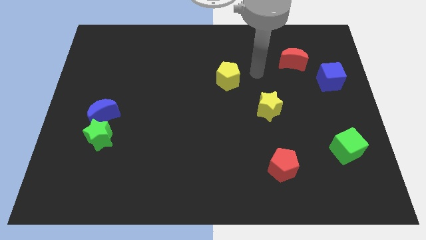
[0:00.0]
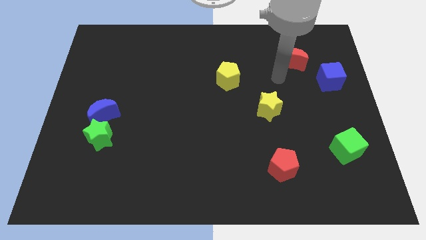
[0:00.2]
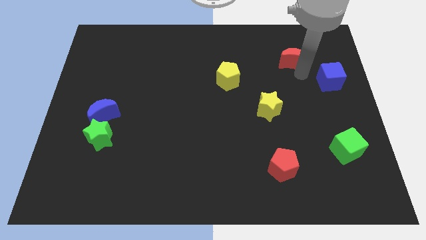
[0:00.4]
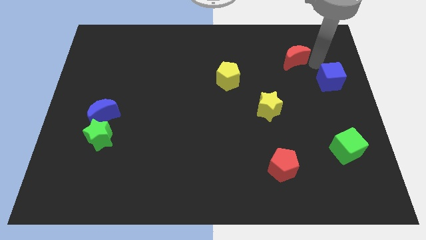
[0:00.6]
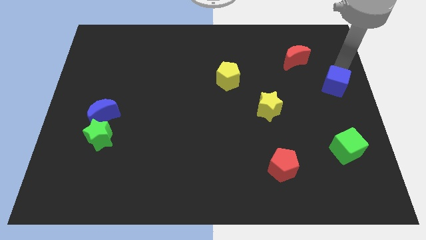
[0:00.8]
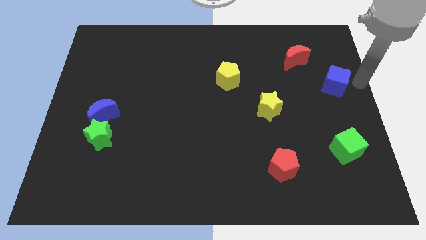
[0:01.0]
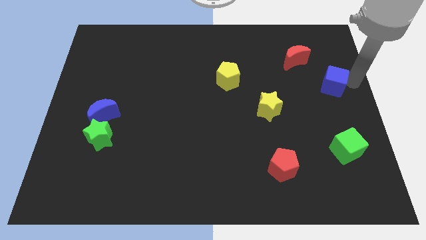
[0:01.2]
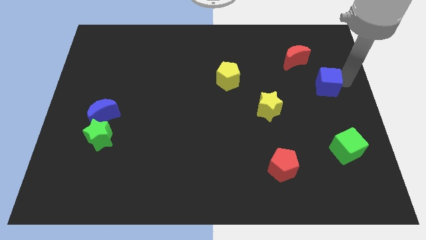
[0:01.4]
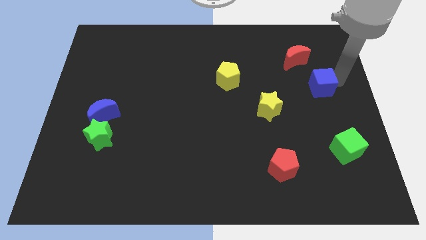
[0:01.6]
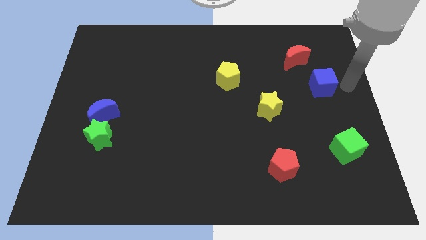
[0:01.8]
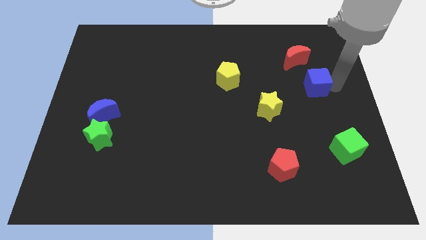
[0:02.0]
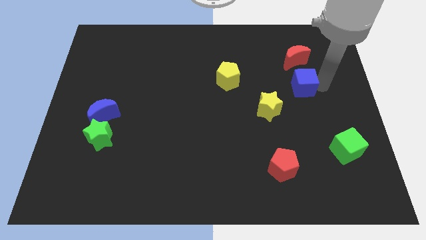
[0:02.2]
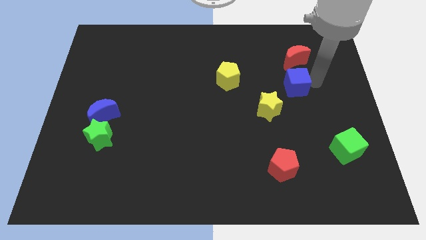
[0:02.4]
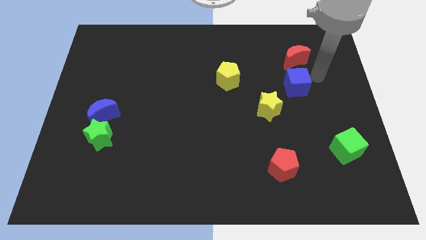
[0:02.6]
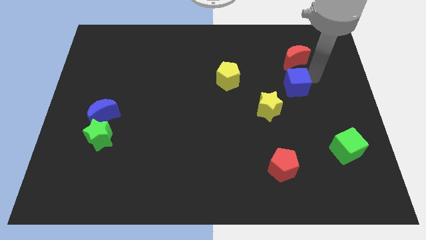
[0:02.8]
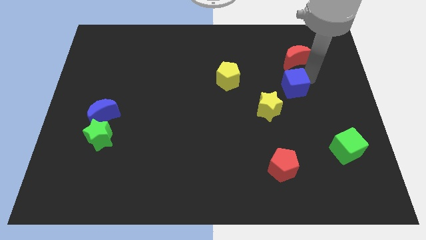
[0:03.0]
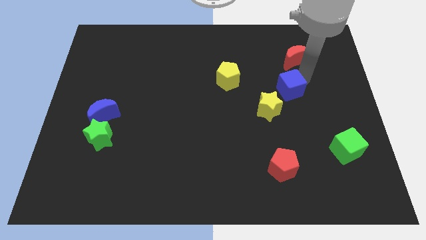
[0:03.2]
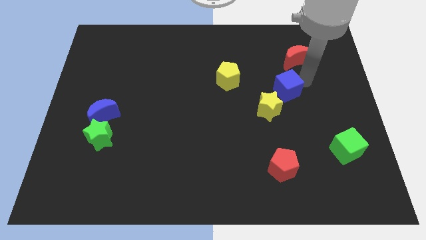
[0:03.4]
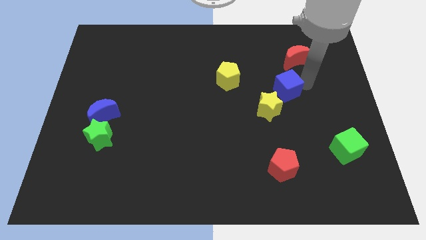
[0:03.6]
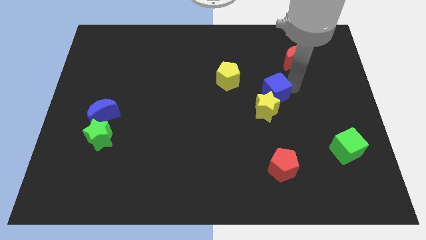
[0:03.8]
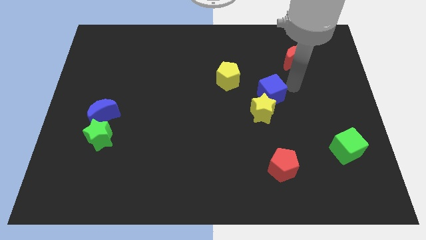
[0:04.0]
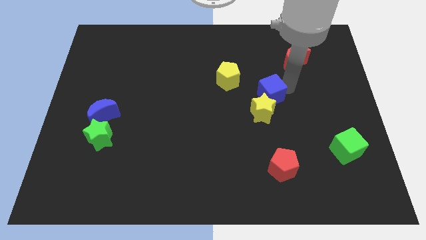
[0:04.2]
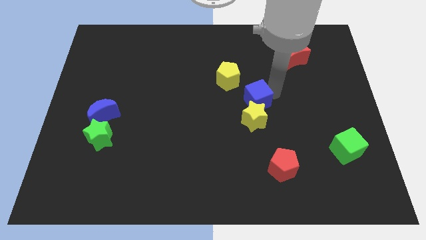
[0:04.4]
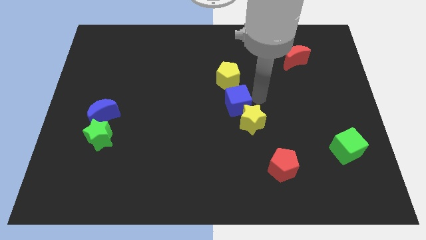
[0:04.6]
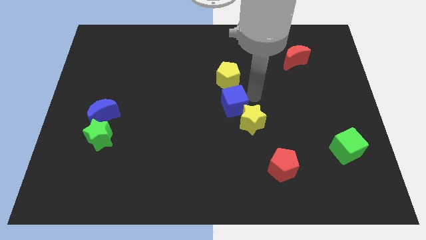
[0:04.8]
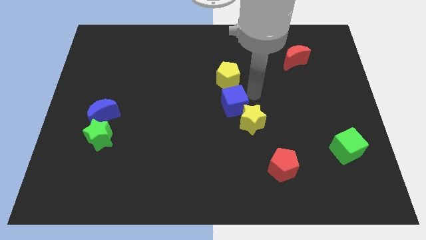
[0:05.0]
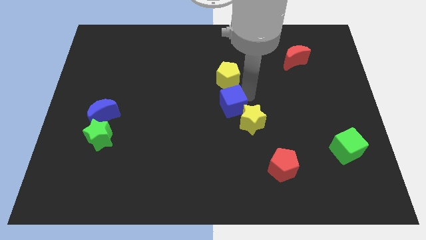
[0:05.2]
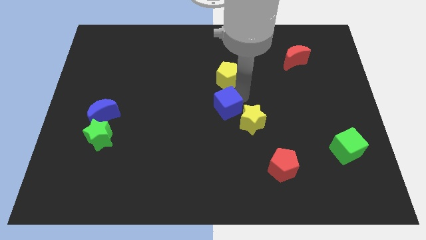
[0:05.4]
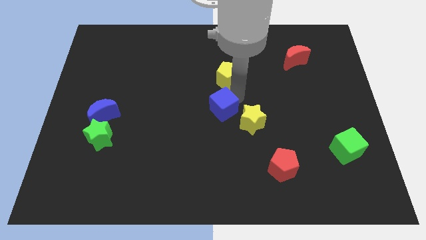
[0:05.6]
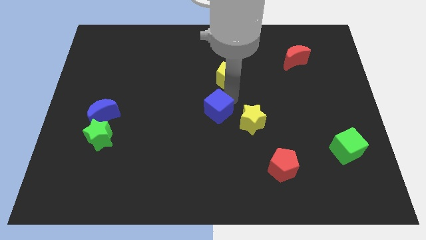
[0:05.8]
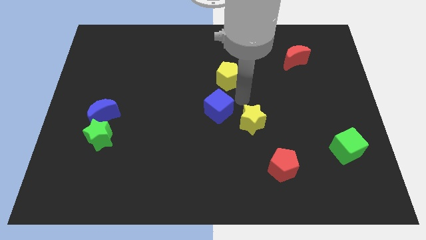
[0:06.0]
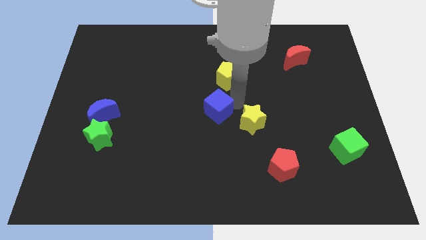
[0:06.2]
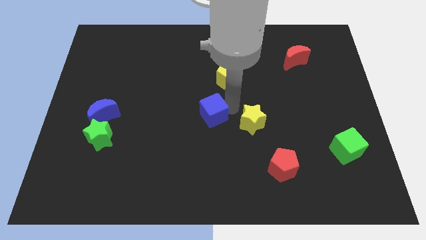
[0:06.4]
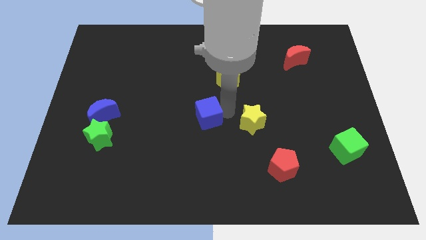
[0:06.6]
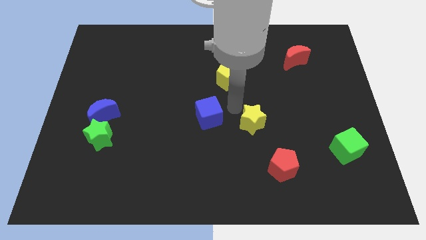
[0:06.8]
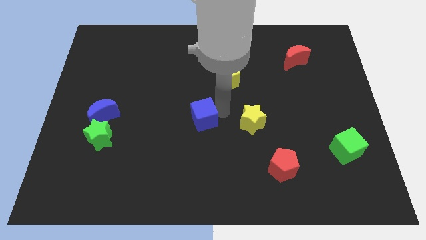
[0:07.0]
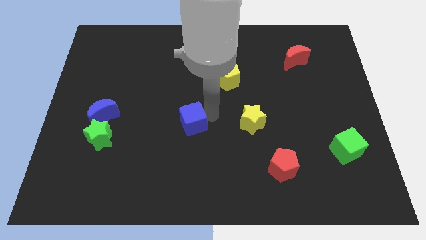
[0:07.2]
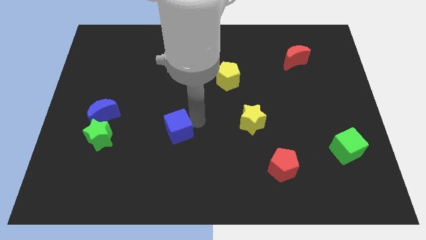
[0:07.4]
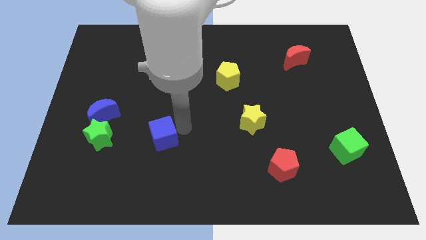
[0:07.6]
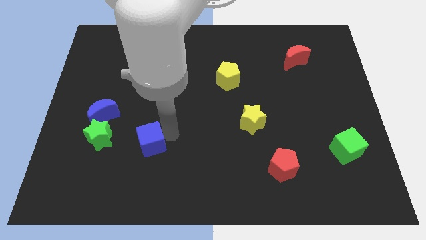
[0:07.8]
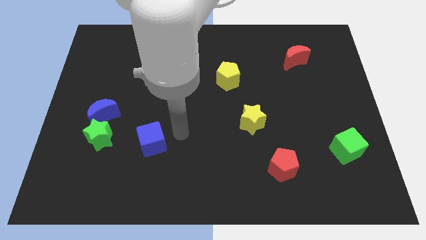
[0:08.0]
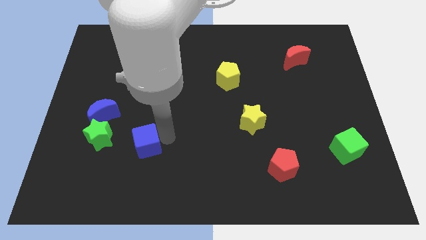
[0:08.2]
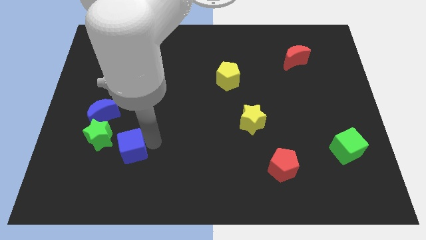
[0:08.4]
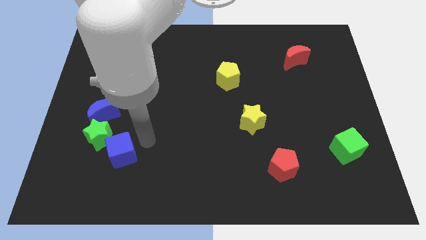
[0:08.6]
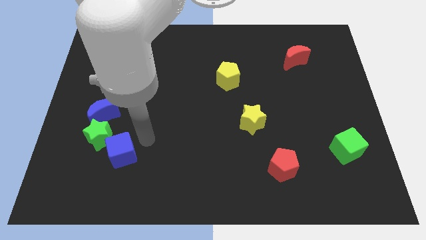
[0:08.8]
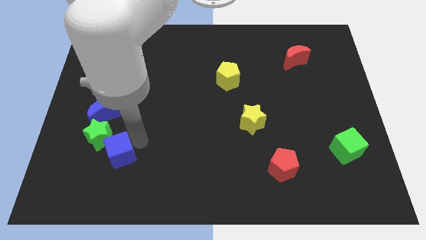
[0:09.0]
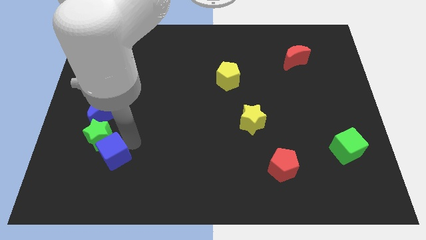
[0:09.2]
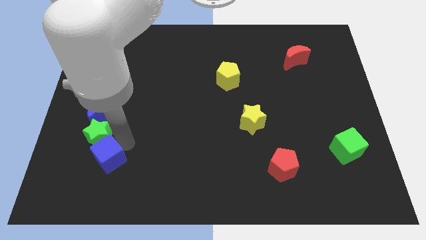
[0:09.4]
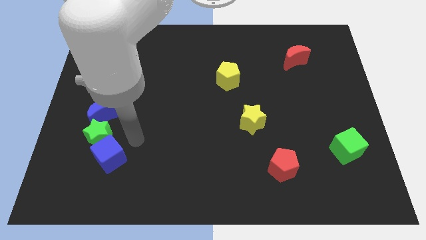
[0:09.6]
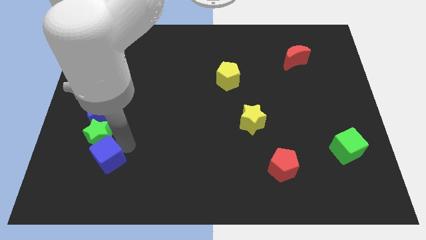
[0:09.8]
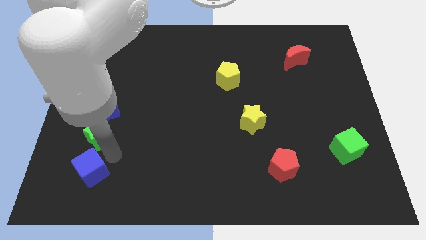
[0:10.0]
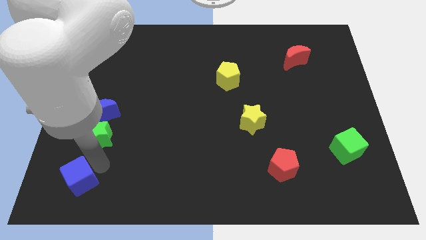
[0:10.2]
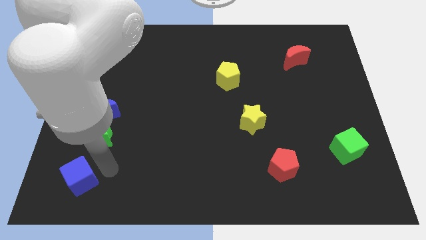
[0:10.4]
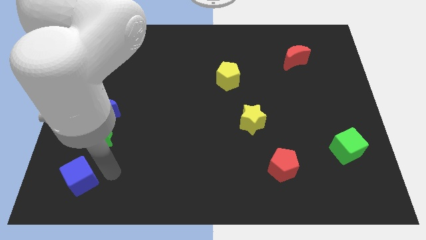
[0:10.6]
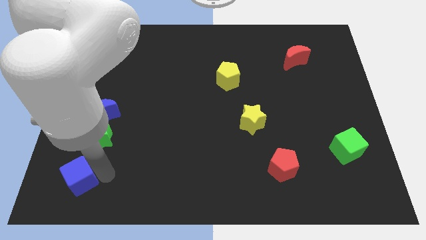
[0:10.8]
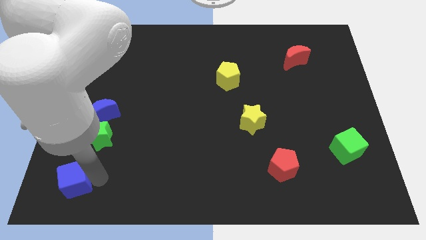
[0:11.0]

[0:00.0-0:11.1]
put the blue cube to the bottom left corner

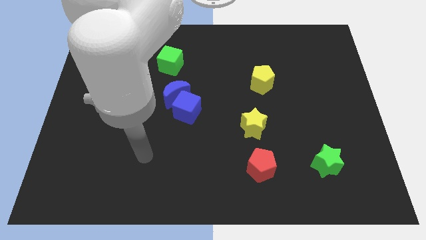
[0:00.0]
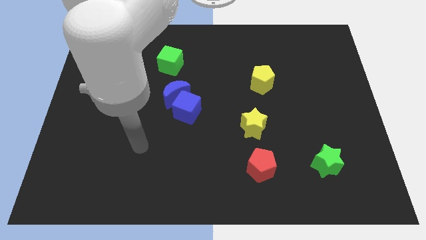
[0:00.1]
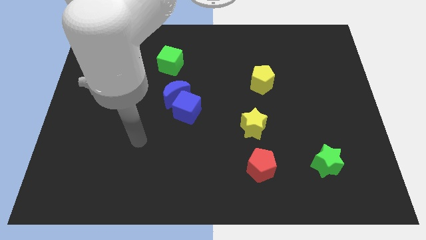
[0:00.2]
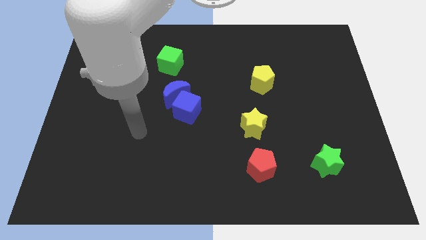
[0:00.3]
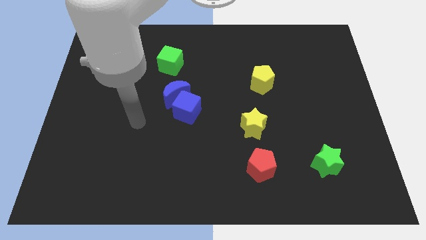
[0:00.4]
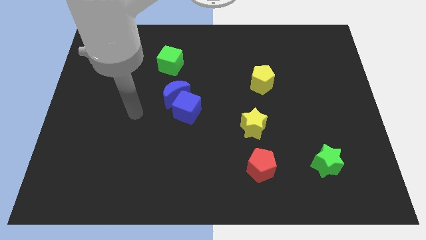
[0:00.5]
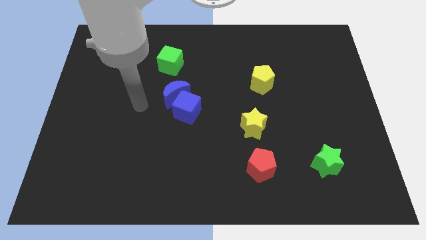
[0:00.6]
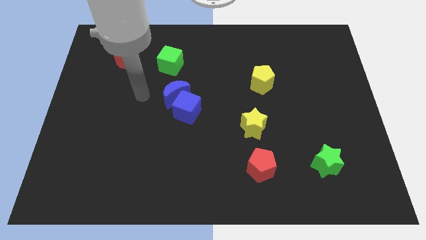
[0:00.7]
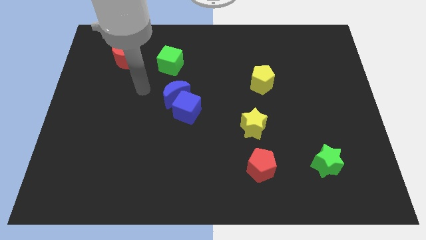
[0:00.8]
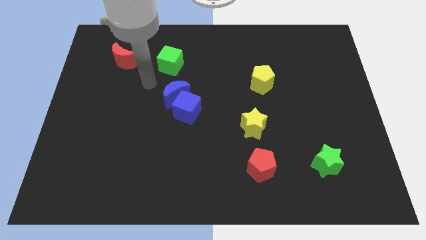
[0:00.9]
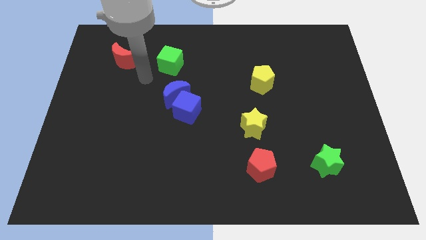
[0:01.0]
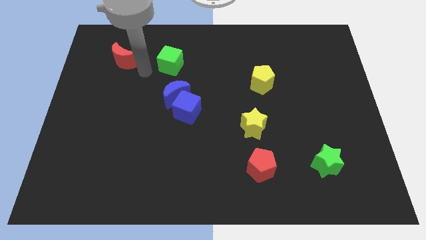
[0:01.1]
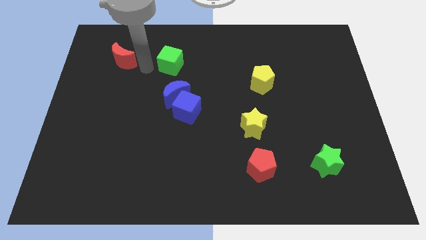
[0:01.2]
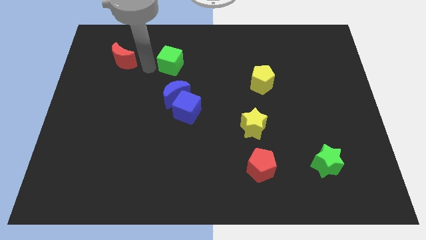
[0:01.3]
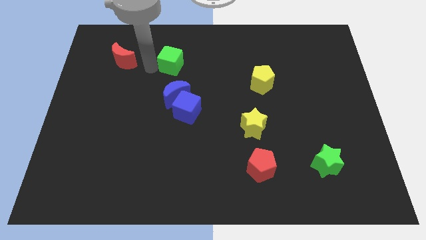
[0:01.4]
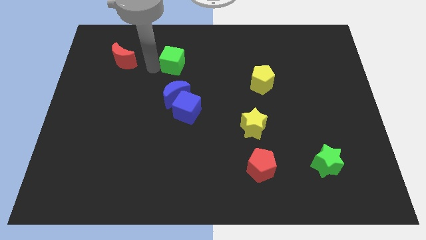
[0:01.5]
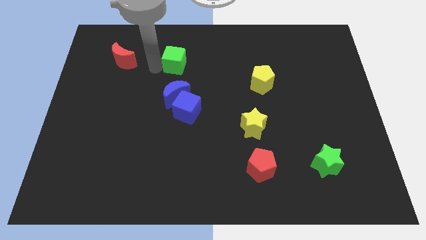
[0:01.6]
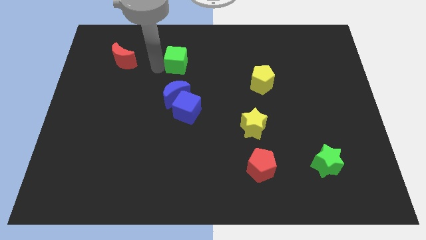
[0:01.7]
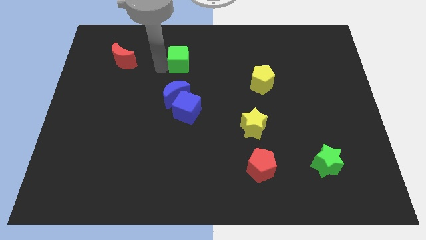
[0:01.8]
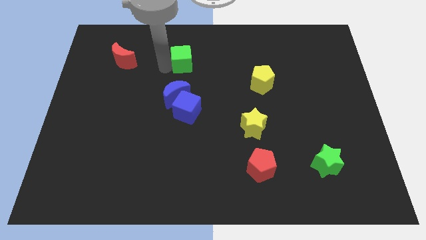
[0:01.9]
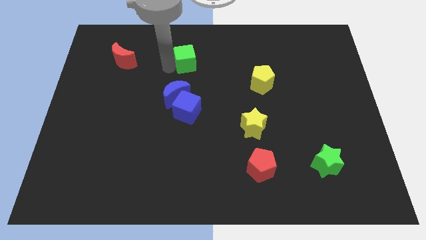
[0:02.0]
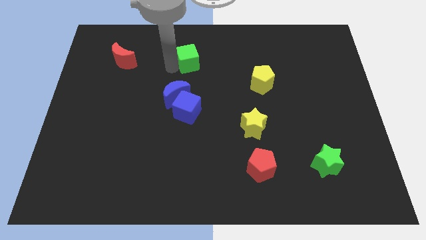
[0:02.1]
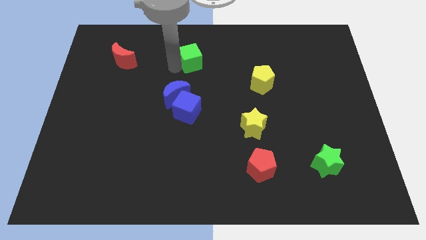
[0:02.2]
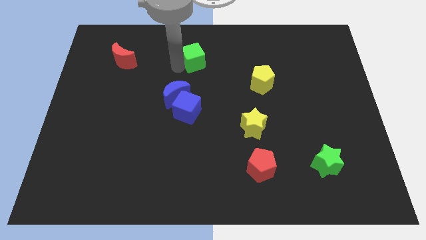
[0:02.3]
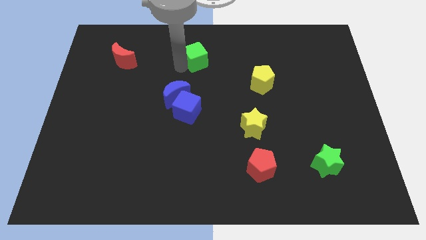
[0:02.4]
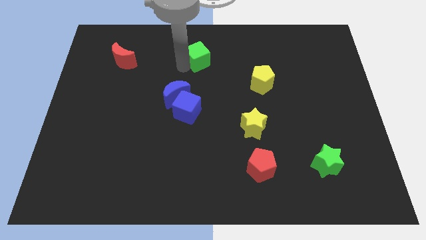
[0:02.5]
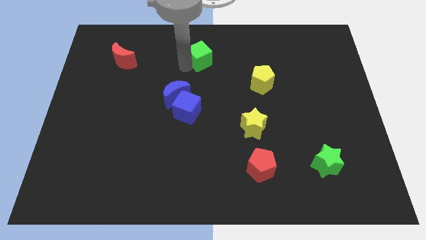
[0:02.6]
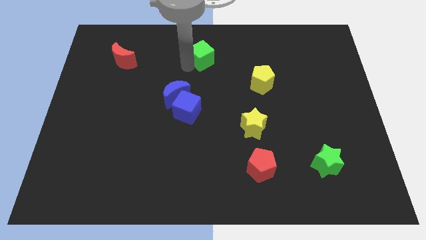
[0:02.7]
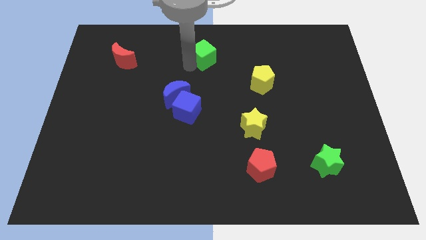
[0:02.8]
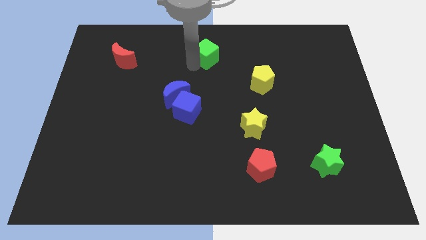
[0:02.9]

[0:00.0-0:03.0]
slide the green cube to the top side
